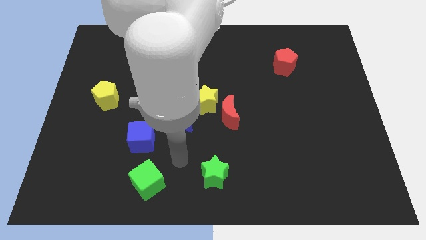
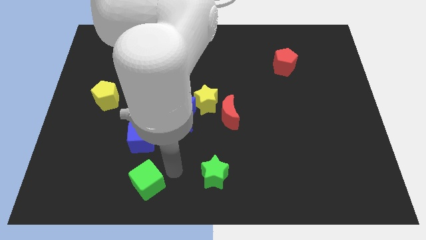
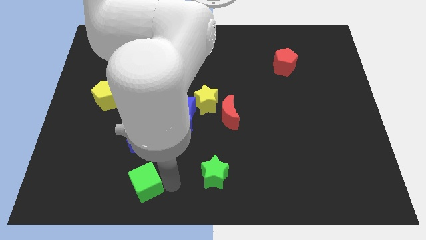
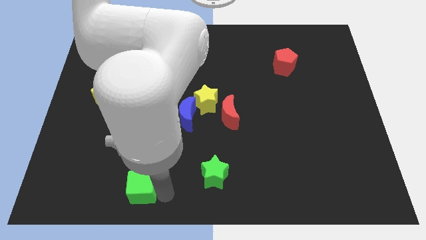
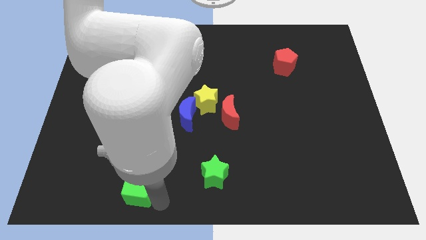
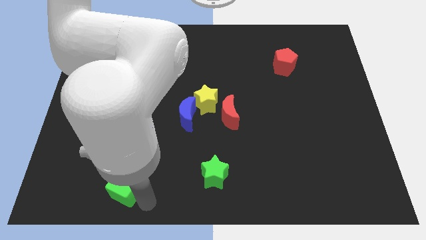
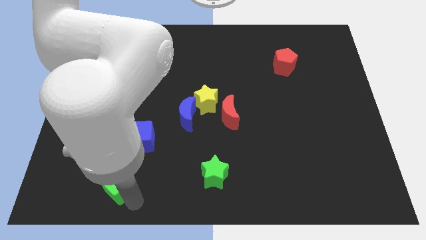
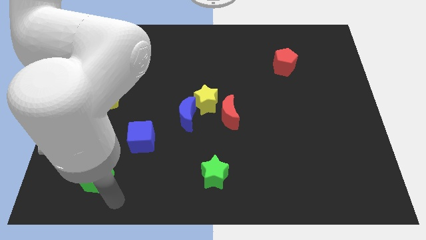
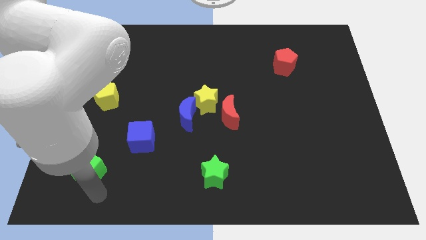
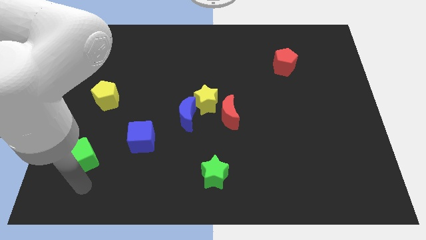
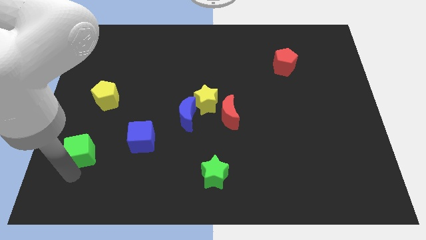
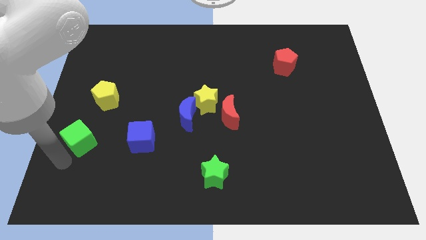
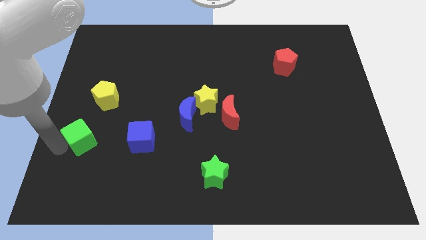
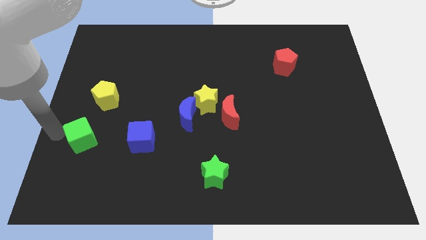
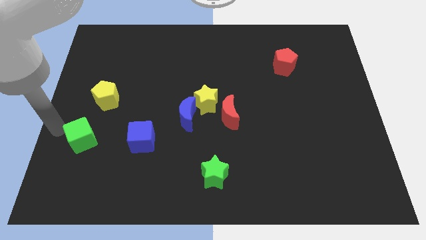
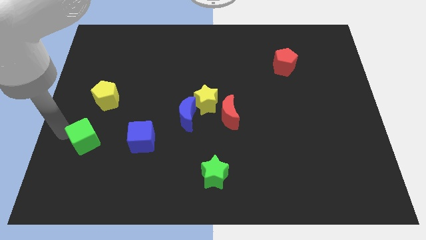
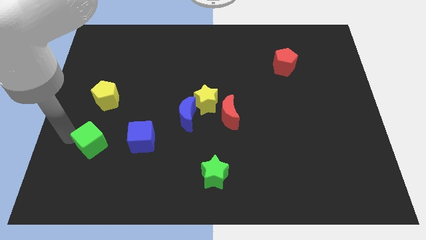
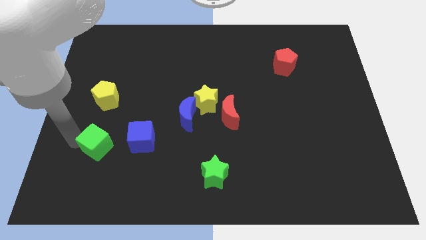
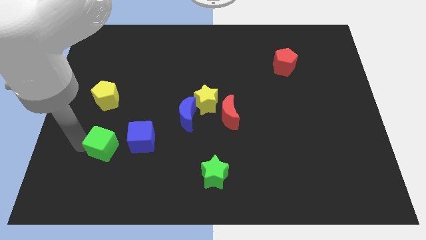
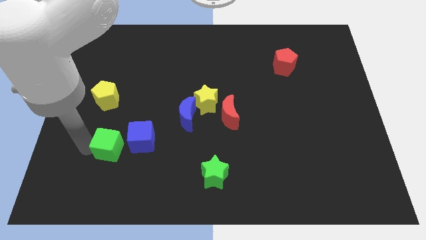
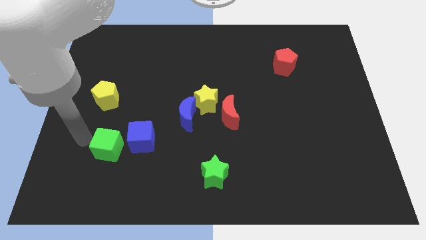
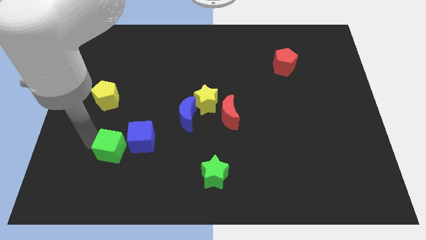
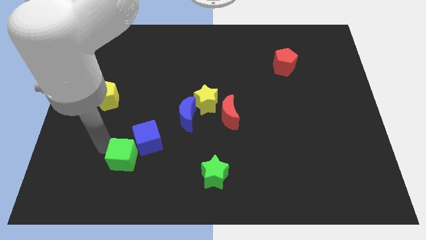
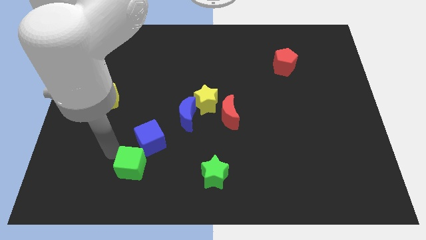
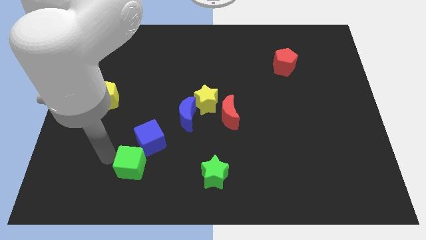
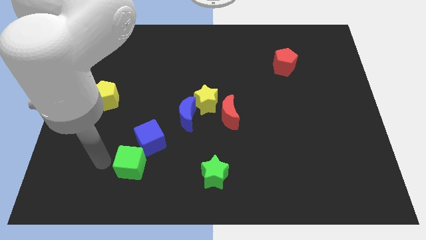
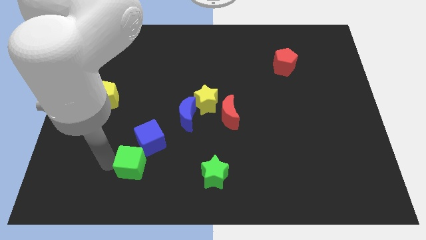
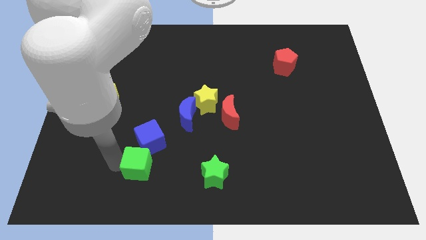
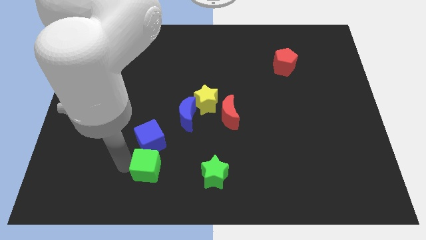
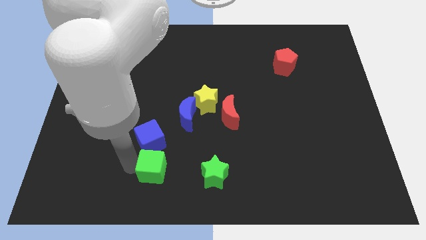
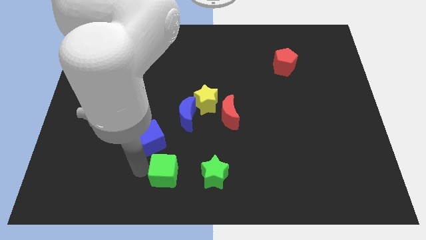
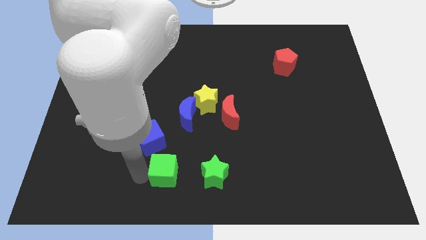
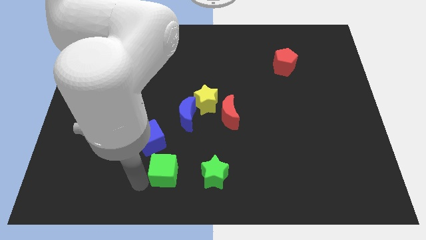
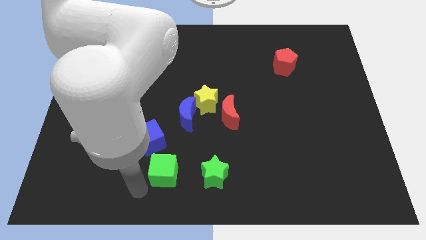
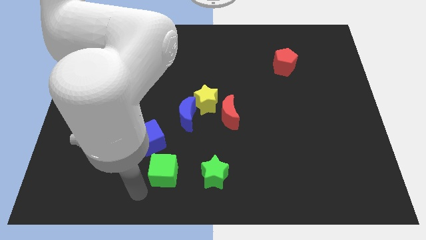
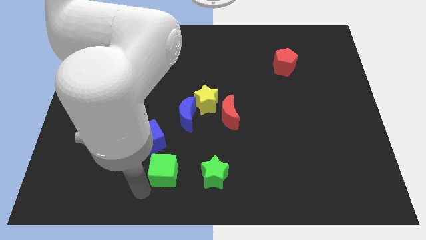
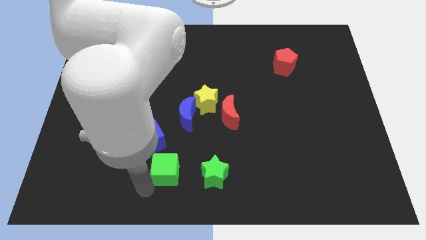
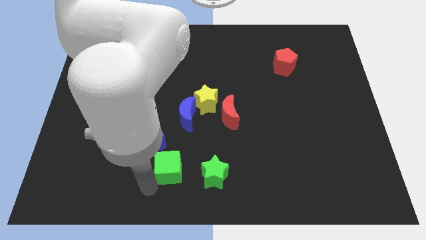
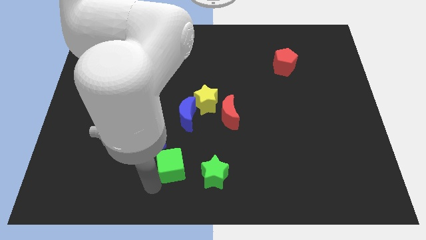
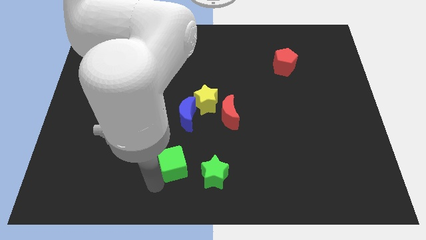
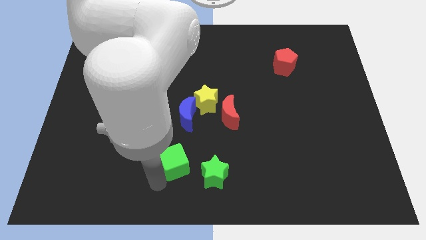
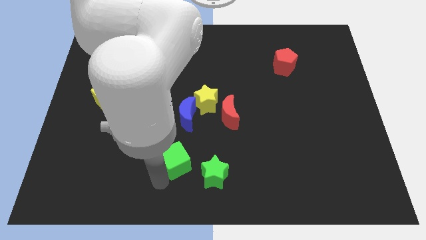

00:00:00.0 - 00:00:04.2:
slightly move the green cube upwards and then to the right

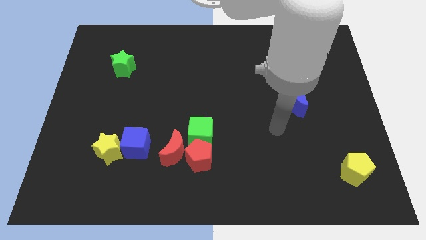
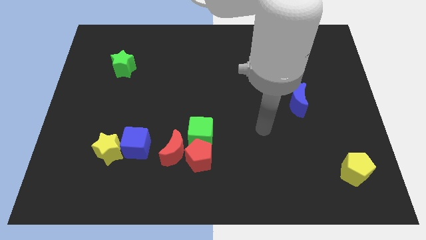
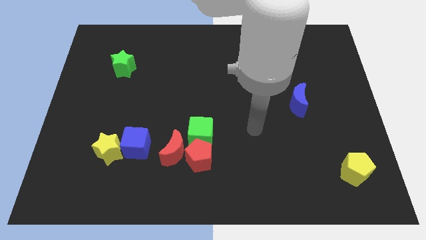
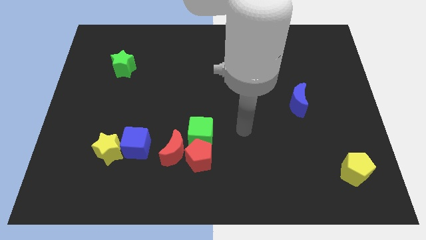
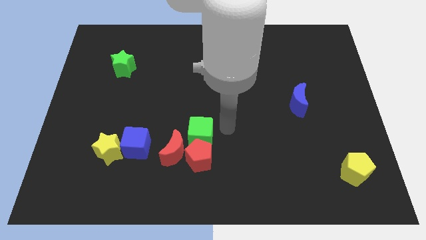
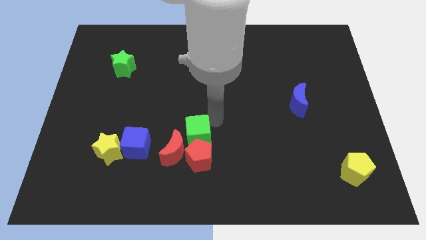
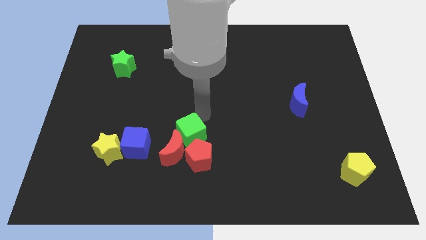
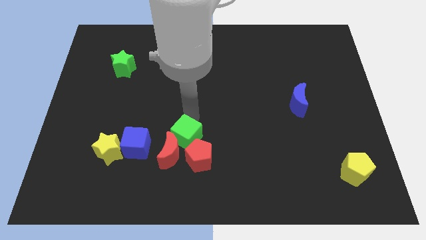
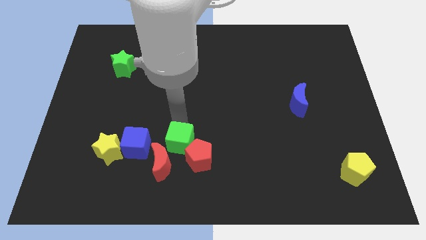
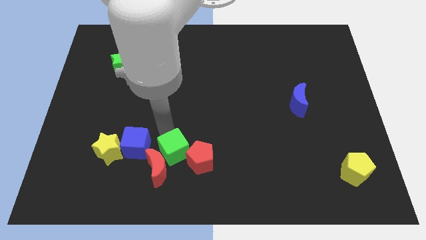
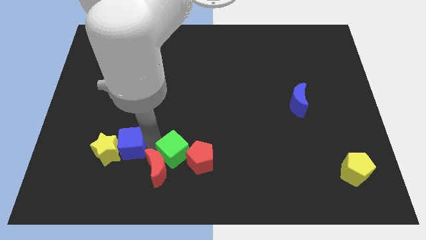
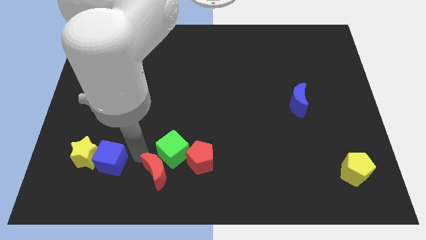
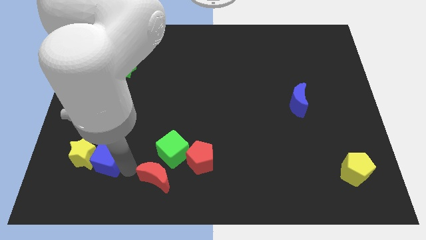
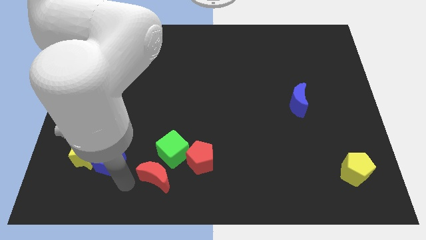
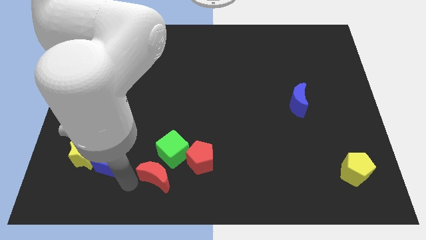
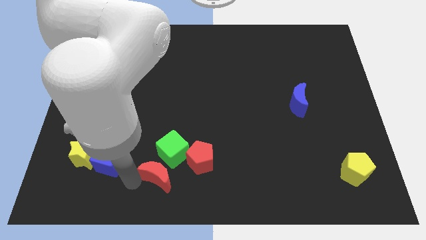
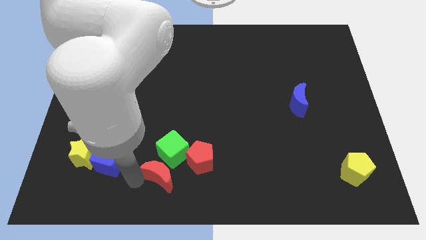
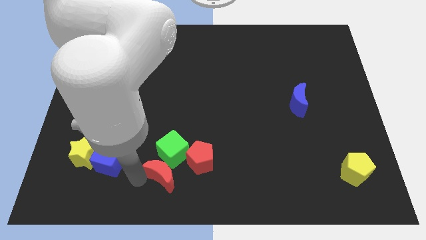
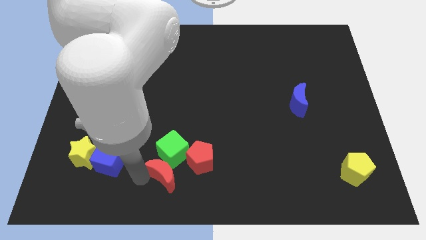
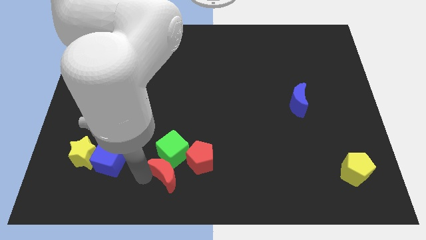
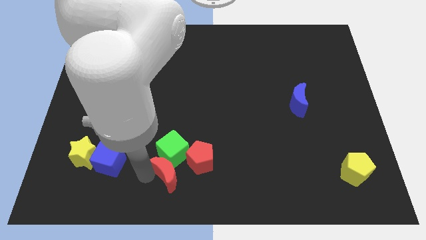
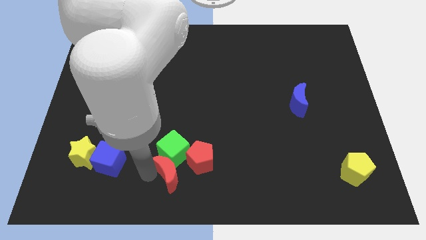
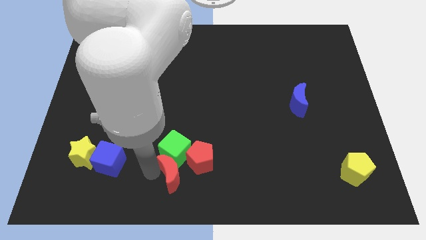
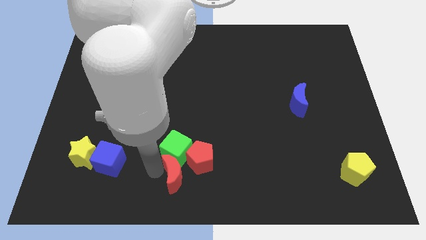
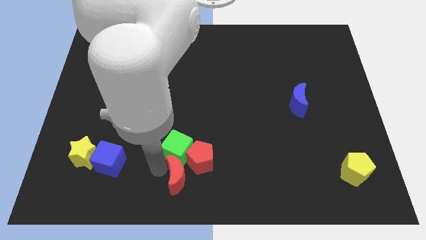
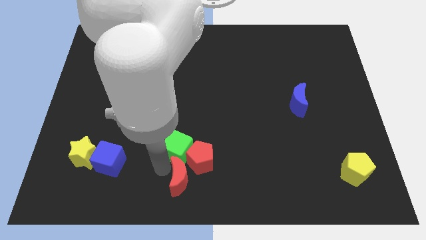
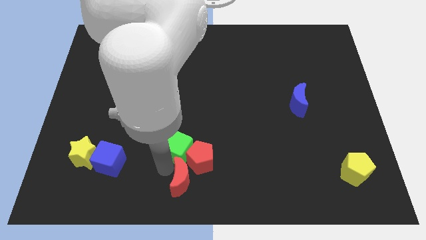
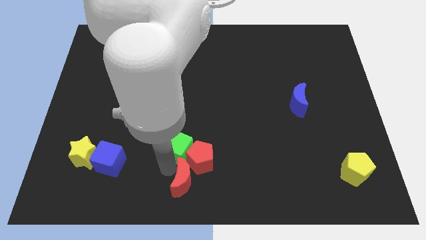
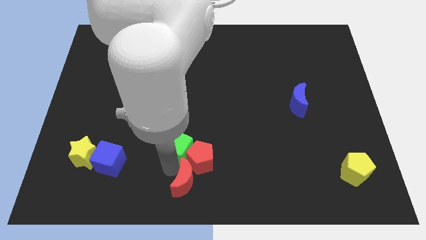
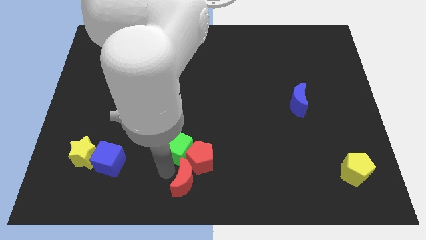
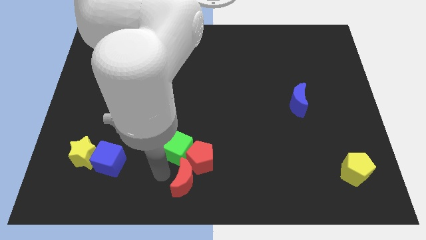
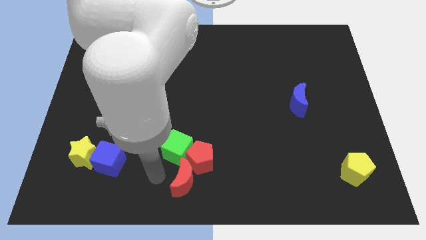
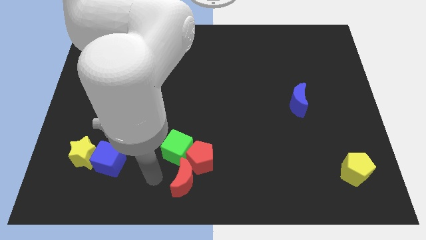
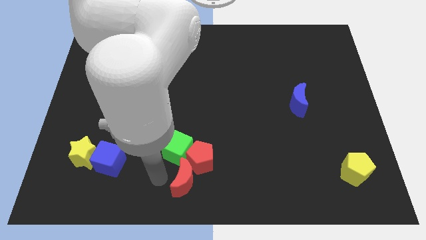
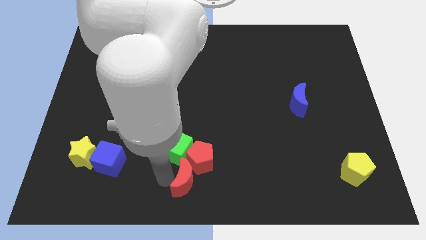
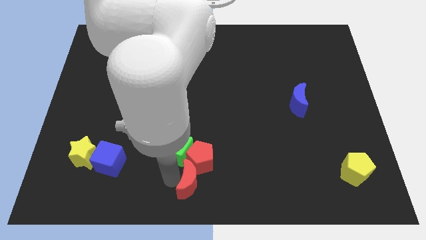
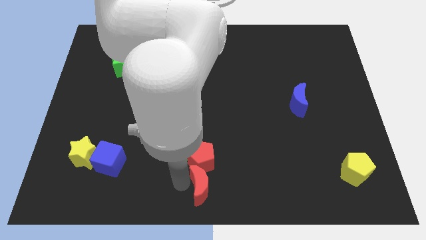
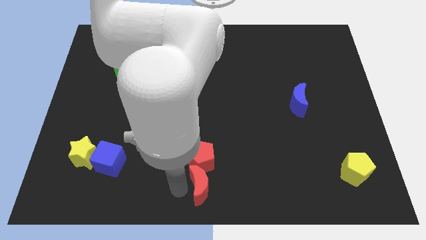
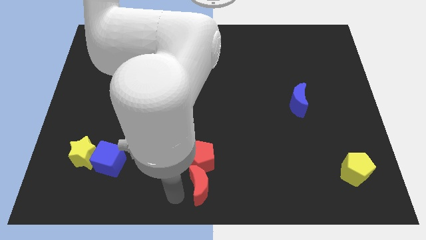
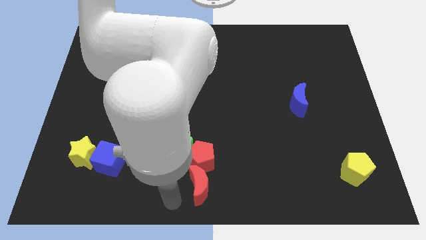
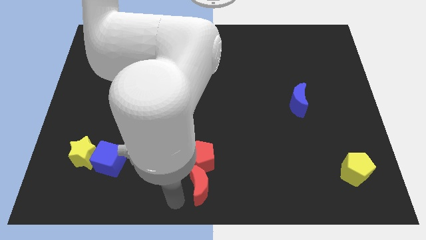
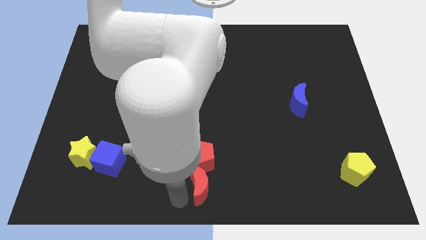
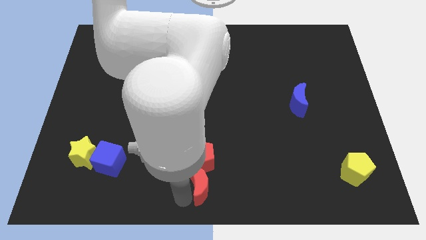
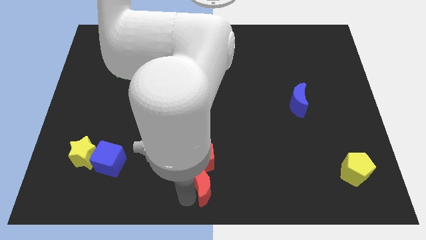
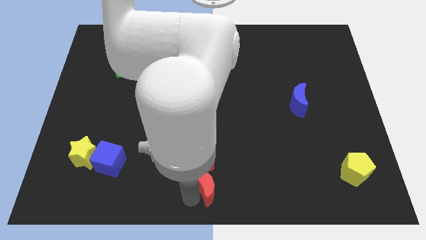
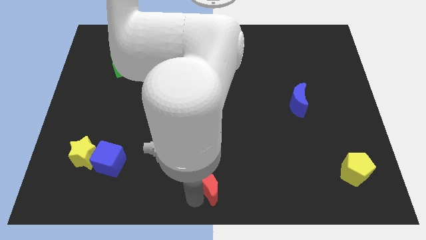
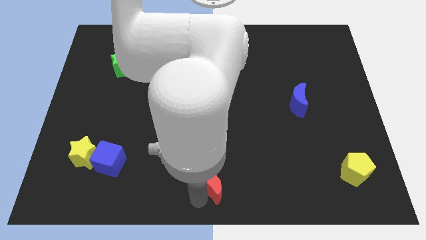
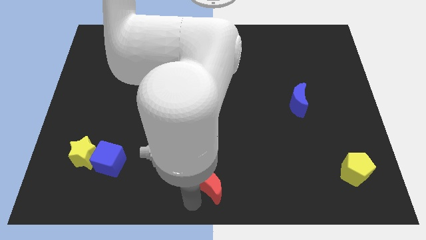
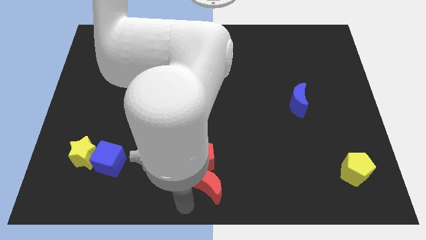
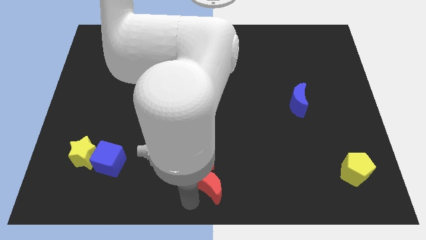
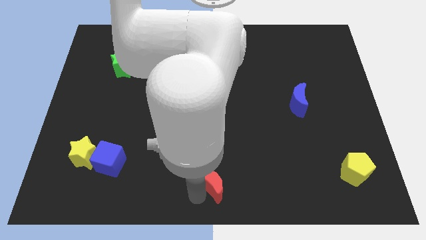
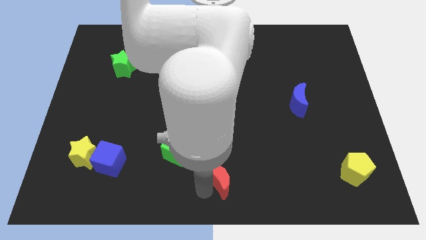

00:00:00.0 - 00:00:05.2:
slide the red moon a little bit to the right
